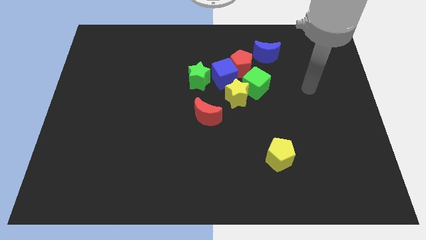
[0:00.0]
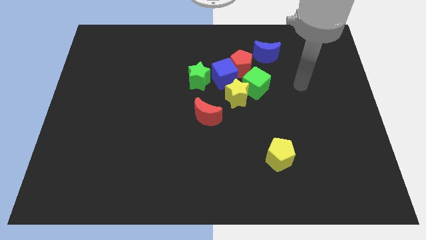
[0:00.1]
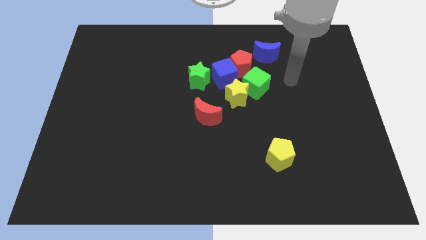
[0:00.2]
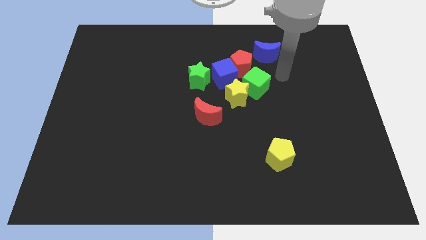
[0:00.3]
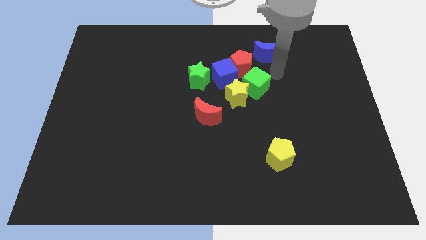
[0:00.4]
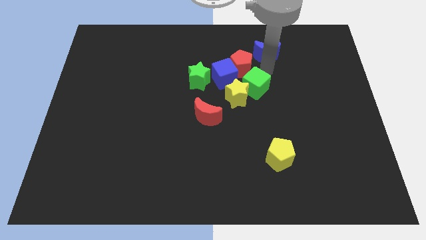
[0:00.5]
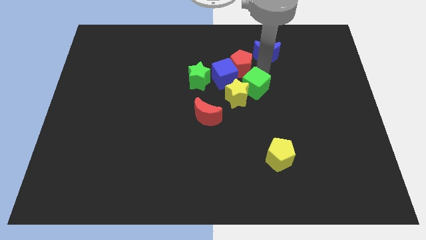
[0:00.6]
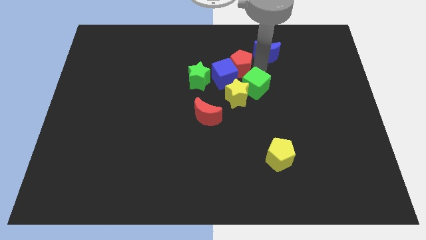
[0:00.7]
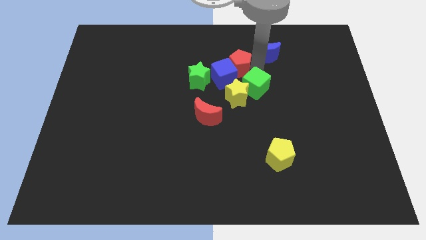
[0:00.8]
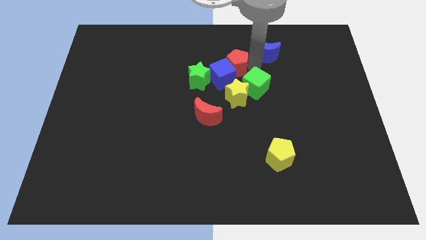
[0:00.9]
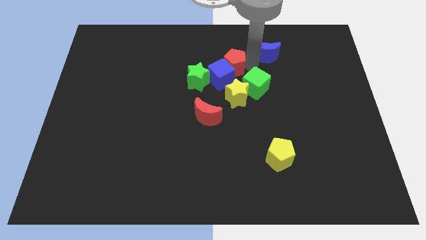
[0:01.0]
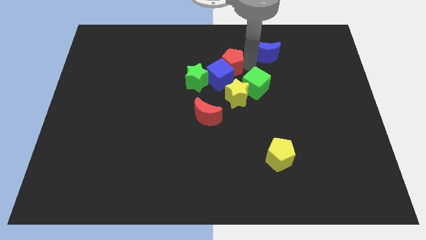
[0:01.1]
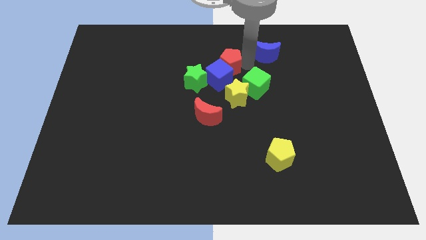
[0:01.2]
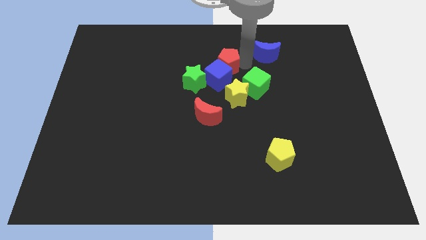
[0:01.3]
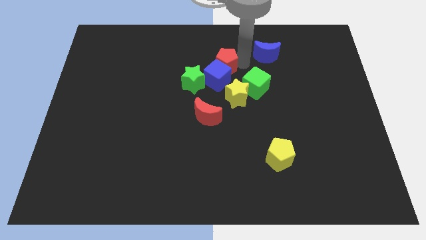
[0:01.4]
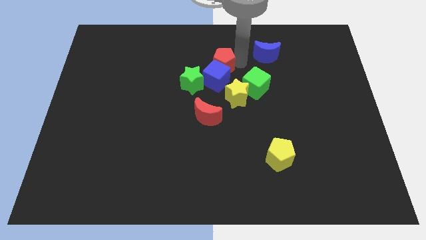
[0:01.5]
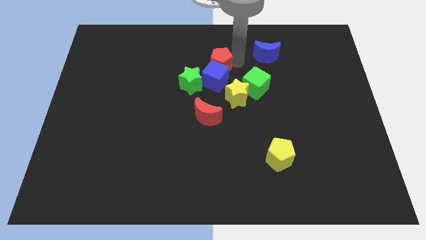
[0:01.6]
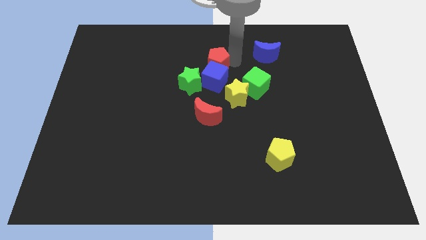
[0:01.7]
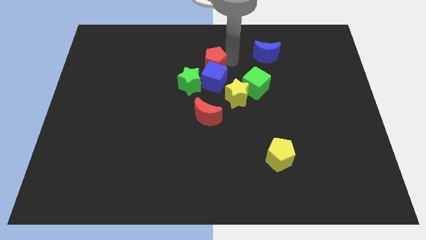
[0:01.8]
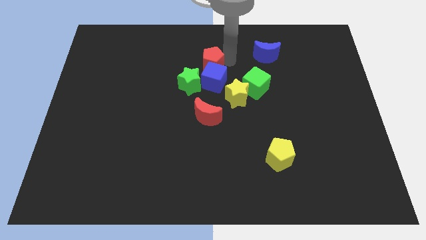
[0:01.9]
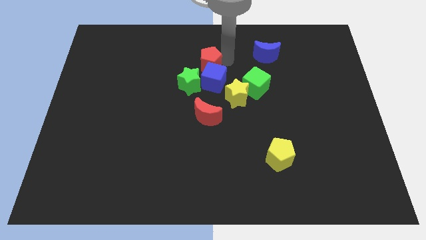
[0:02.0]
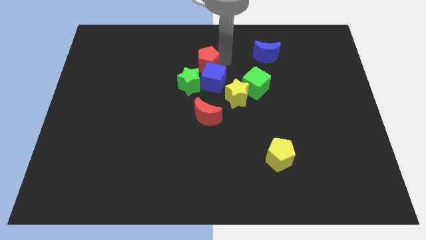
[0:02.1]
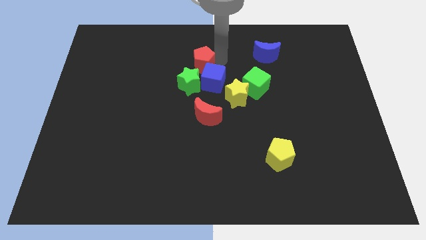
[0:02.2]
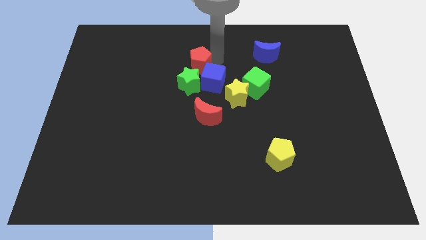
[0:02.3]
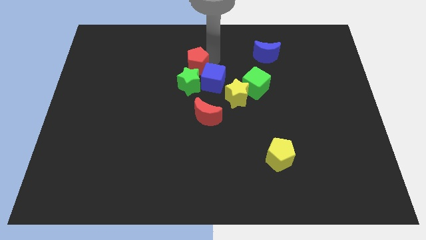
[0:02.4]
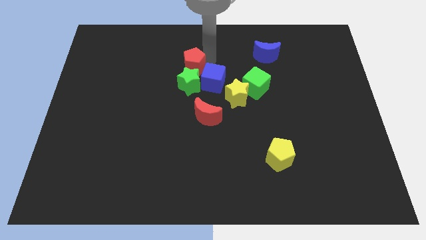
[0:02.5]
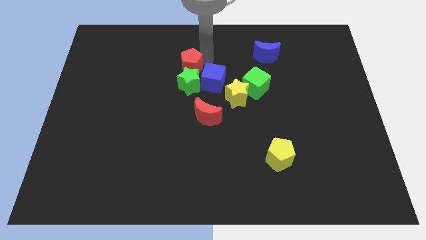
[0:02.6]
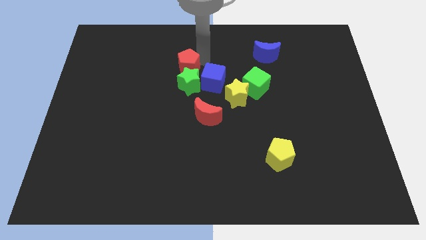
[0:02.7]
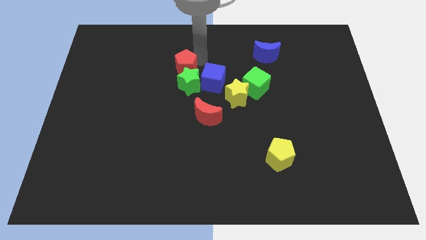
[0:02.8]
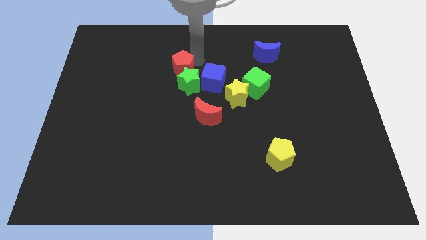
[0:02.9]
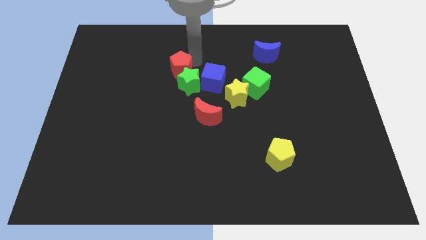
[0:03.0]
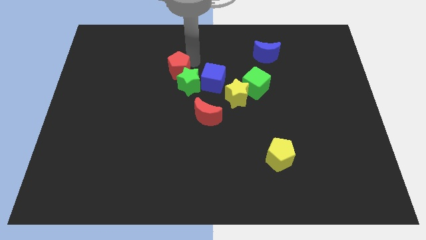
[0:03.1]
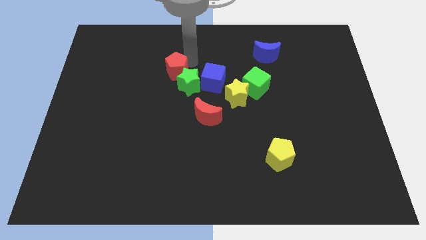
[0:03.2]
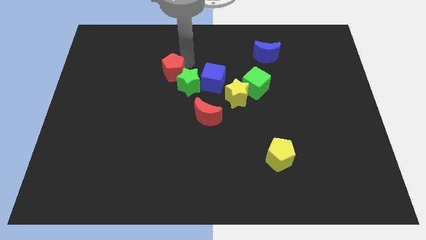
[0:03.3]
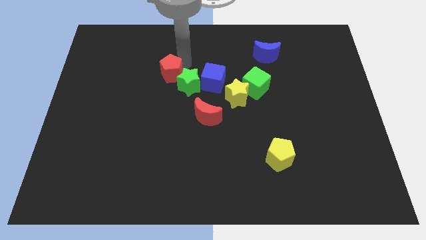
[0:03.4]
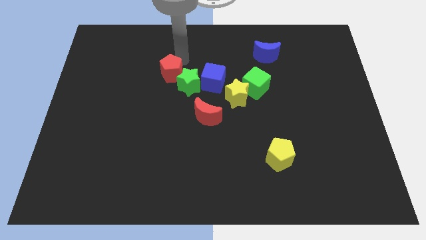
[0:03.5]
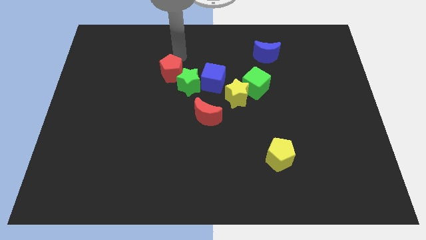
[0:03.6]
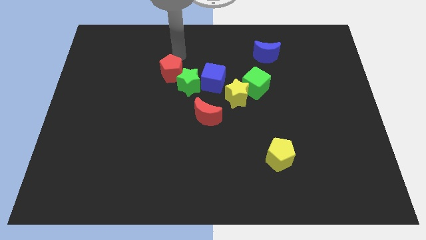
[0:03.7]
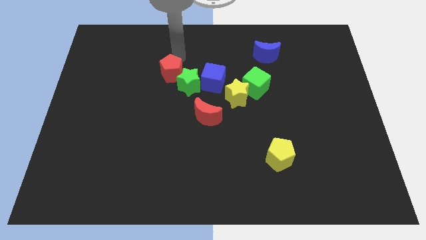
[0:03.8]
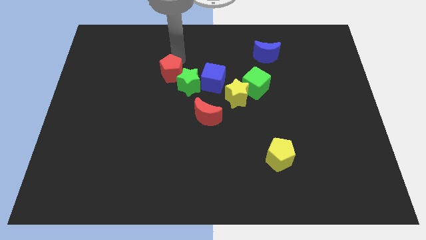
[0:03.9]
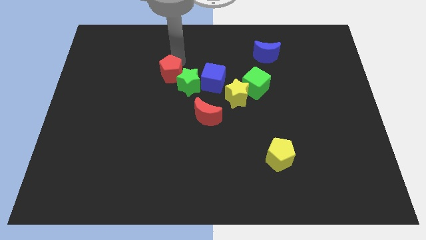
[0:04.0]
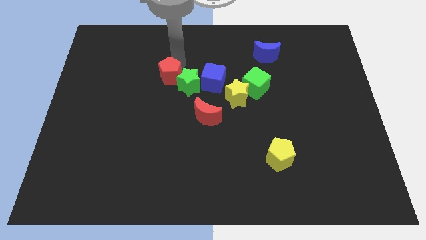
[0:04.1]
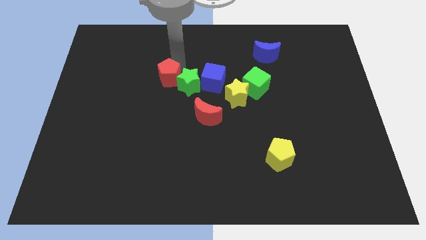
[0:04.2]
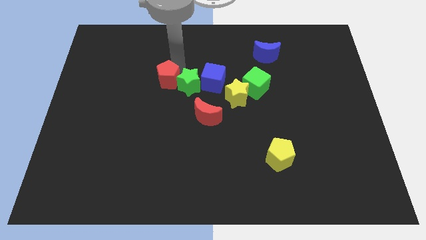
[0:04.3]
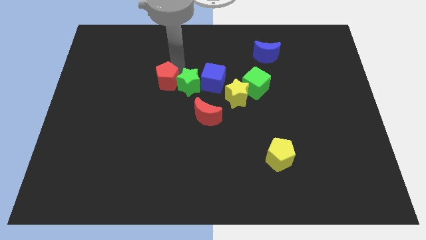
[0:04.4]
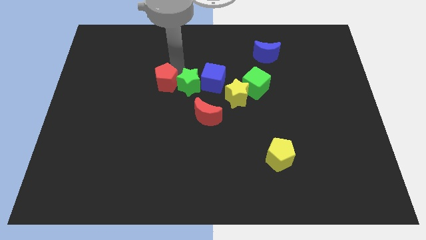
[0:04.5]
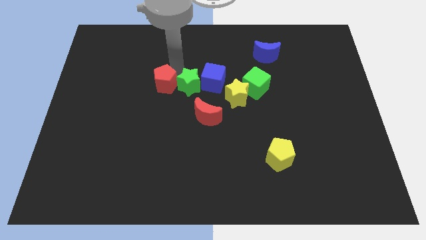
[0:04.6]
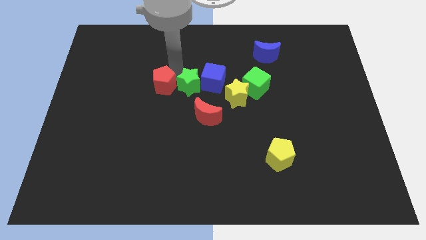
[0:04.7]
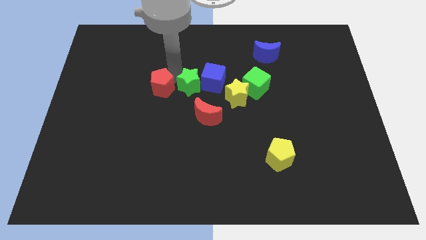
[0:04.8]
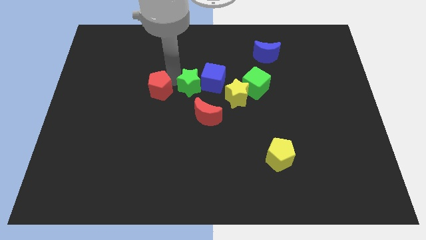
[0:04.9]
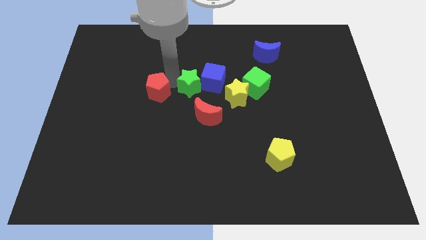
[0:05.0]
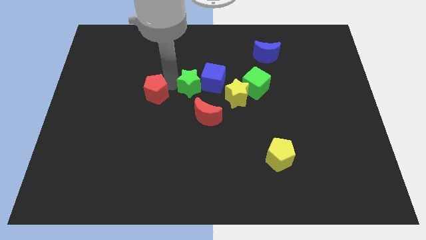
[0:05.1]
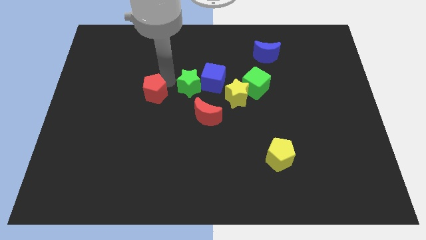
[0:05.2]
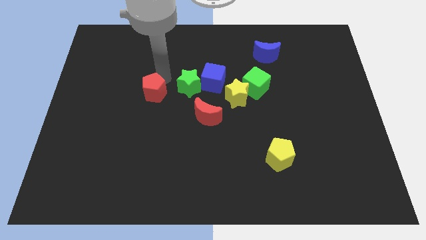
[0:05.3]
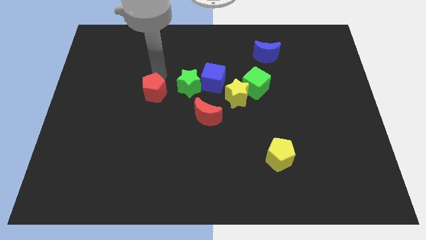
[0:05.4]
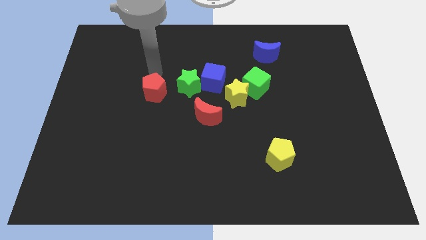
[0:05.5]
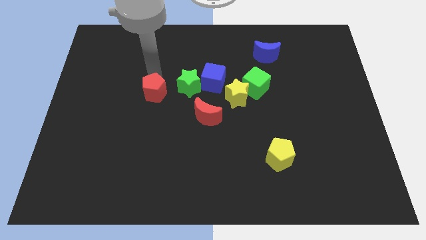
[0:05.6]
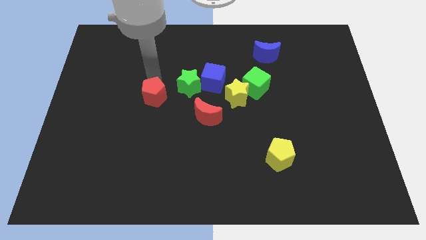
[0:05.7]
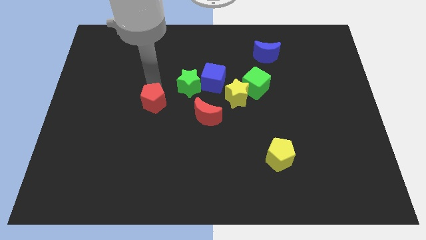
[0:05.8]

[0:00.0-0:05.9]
slide the red pentagon down and to the left

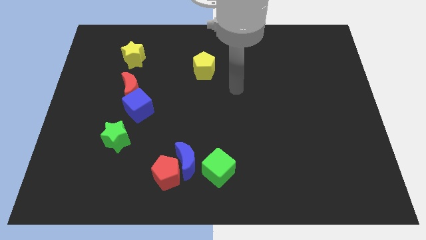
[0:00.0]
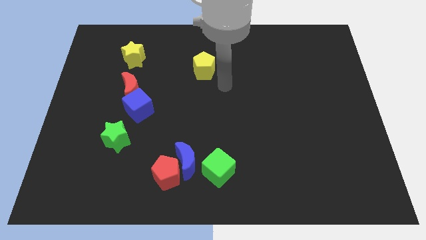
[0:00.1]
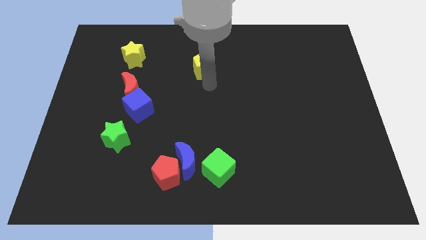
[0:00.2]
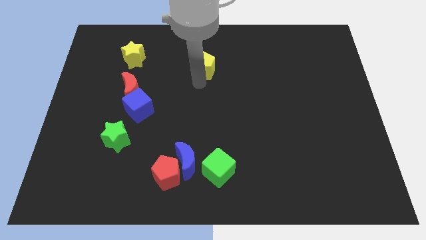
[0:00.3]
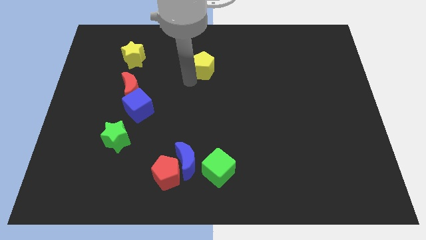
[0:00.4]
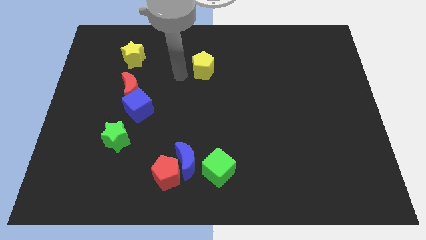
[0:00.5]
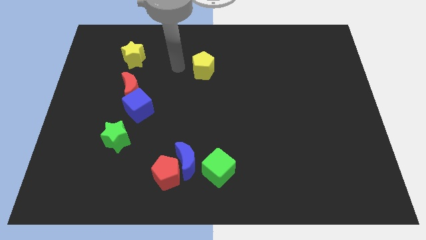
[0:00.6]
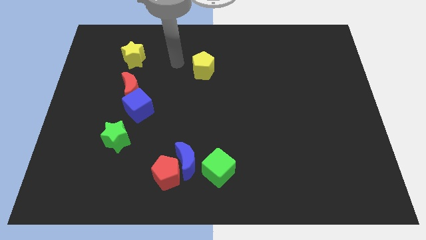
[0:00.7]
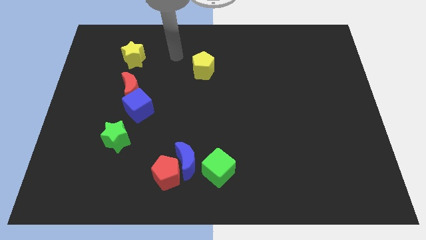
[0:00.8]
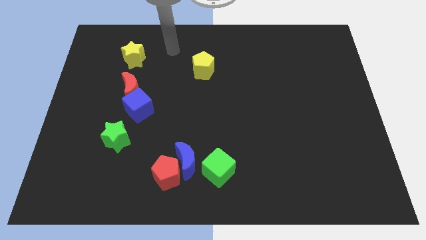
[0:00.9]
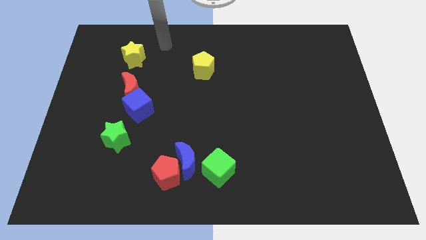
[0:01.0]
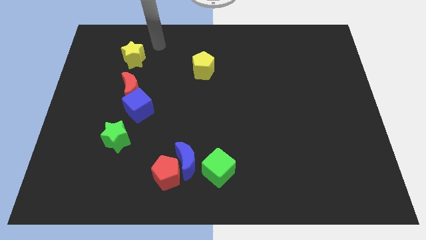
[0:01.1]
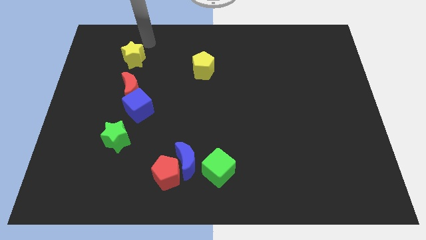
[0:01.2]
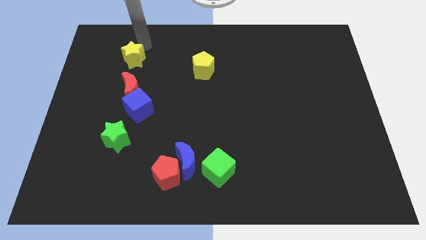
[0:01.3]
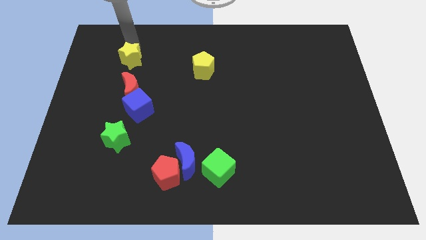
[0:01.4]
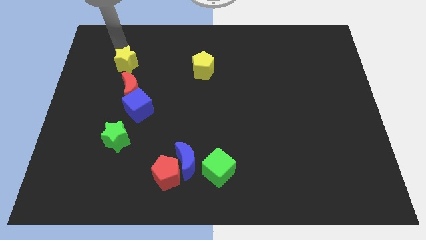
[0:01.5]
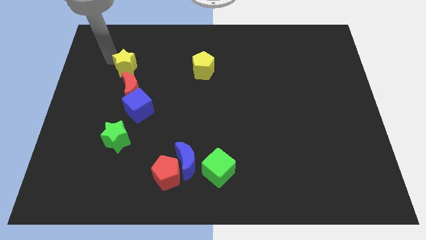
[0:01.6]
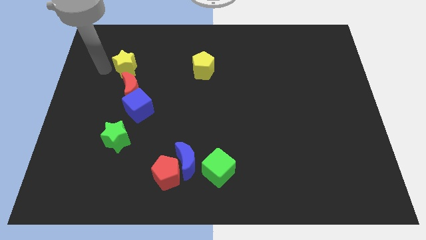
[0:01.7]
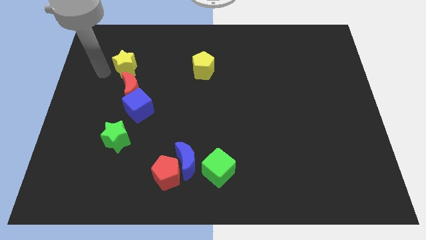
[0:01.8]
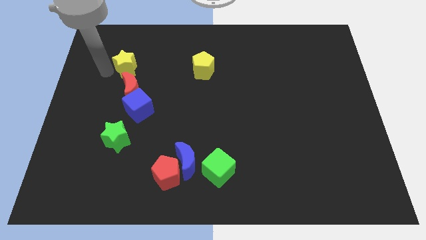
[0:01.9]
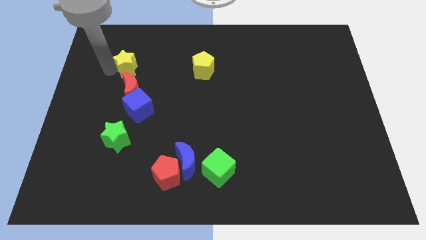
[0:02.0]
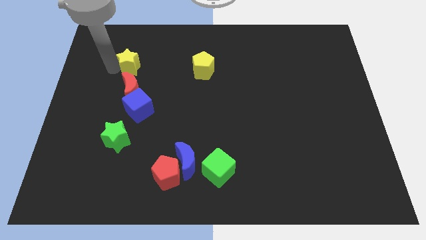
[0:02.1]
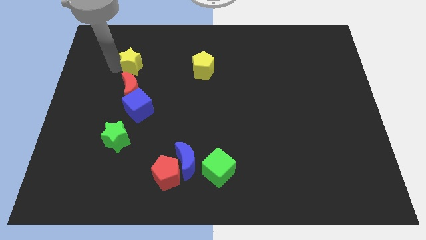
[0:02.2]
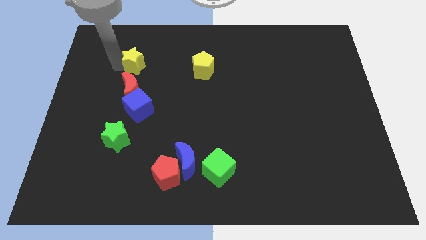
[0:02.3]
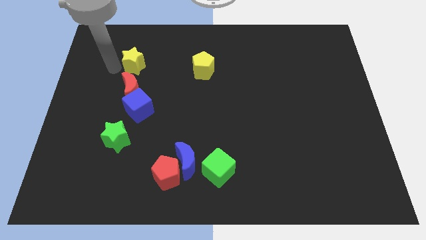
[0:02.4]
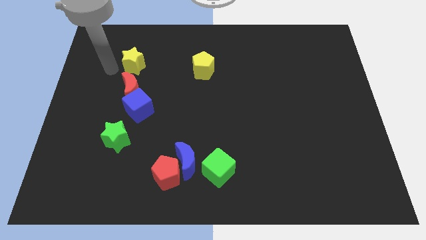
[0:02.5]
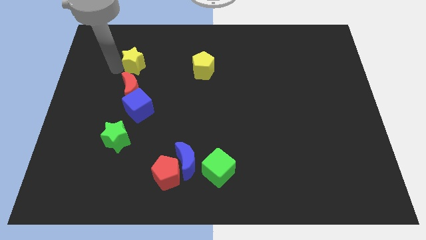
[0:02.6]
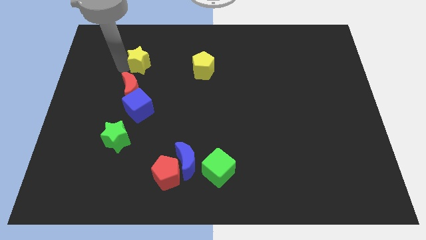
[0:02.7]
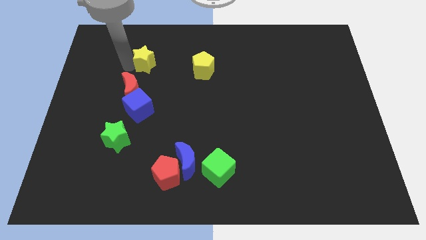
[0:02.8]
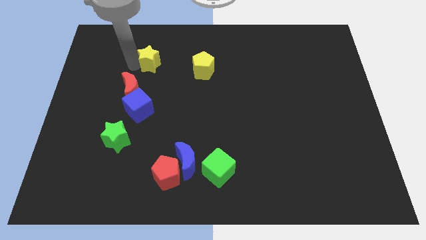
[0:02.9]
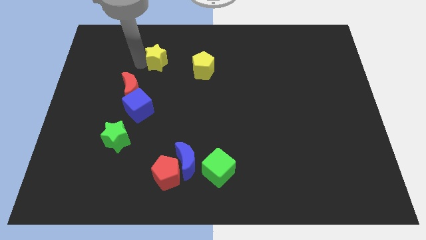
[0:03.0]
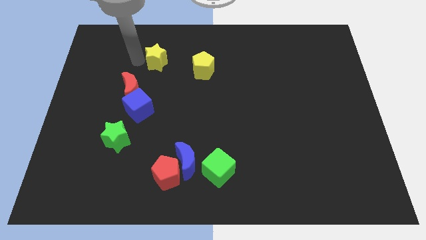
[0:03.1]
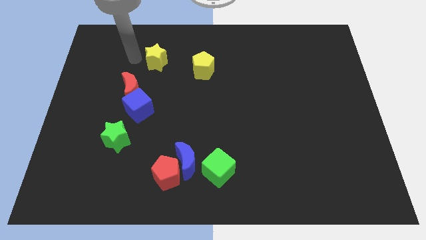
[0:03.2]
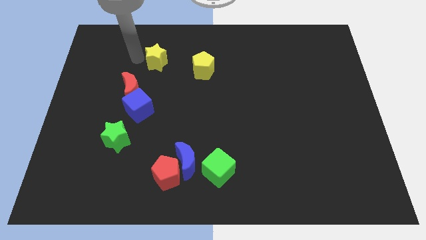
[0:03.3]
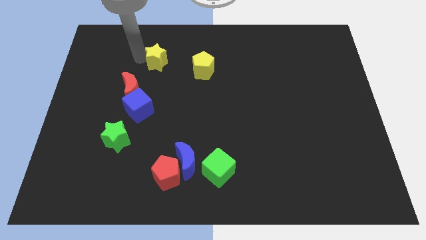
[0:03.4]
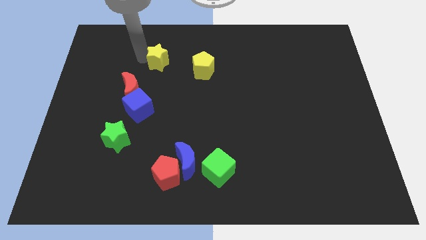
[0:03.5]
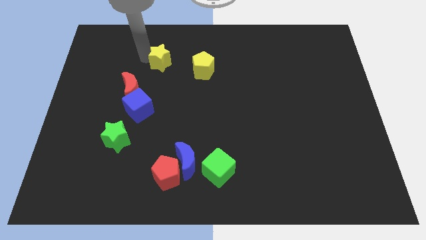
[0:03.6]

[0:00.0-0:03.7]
slightly push the yellow star to the right
